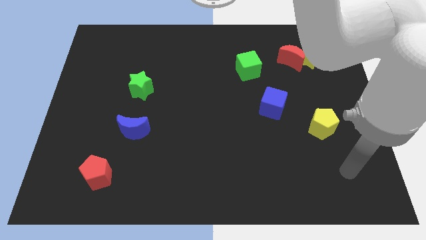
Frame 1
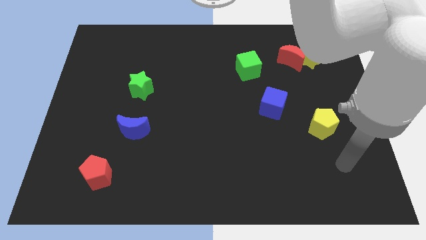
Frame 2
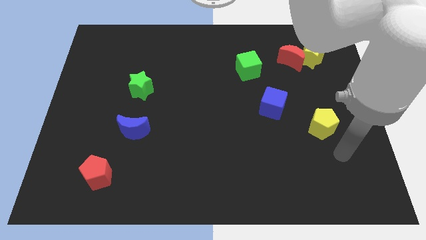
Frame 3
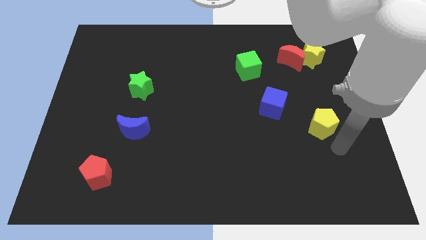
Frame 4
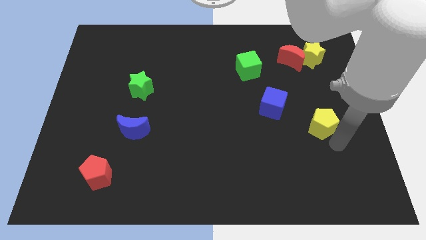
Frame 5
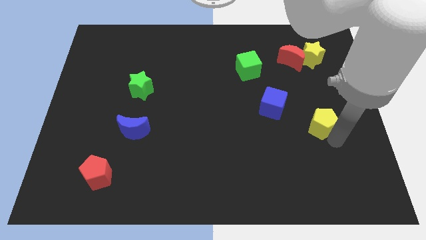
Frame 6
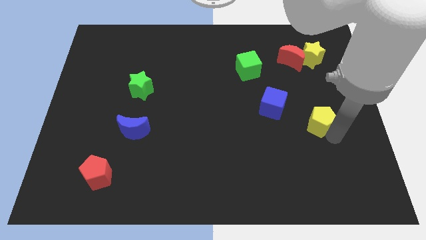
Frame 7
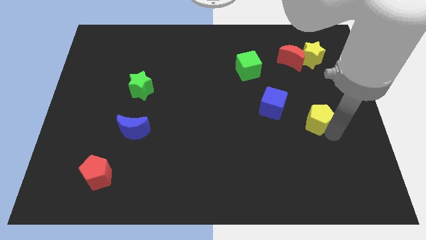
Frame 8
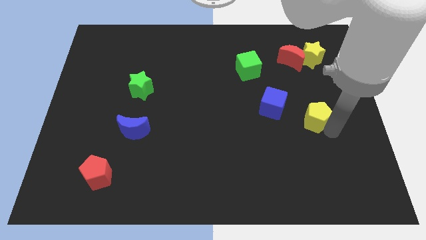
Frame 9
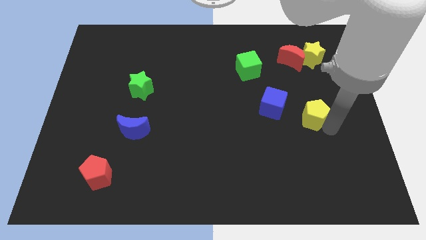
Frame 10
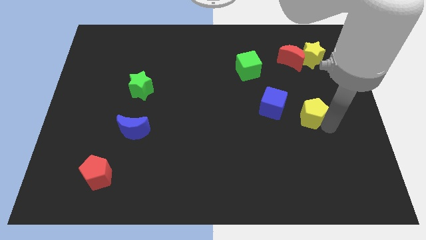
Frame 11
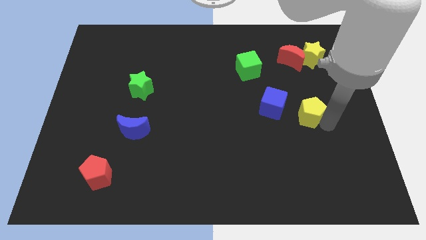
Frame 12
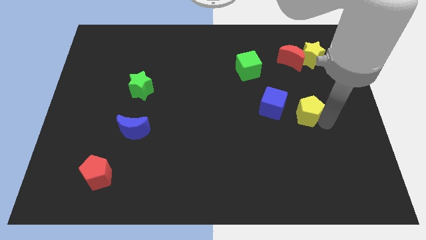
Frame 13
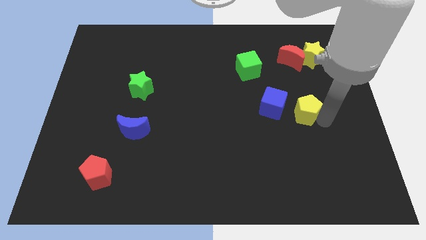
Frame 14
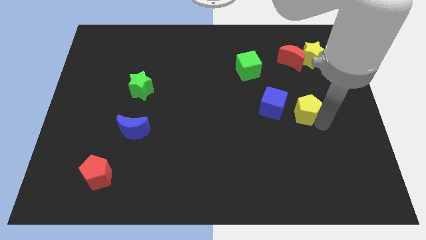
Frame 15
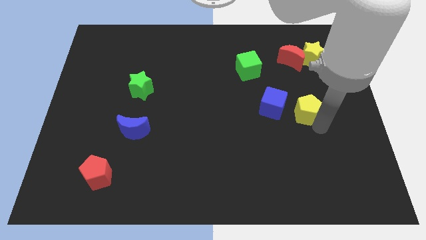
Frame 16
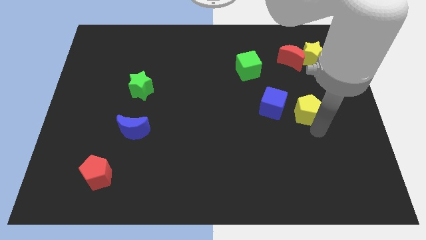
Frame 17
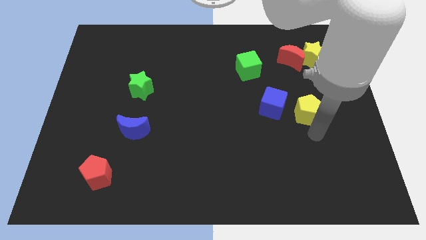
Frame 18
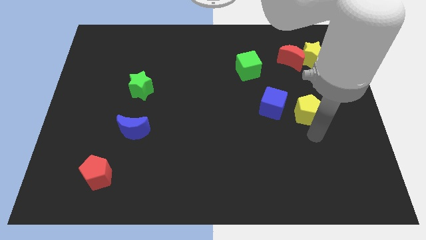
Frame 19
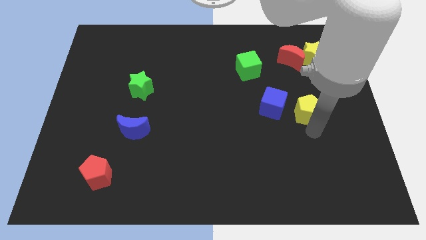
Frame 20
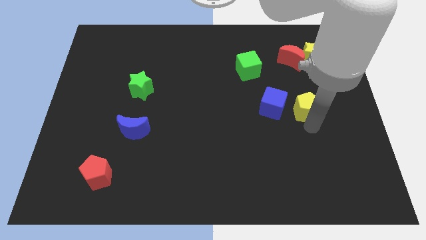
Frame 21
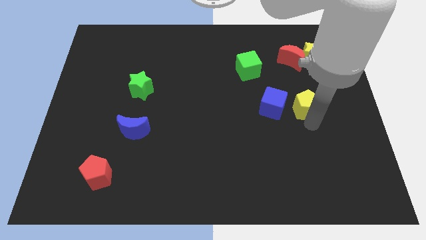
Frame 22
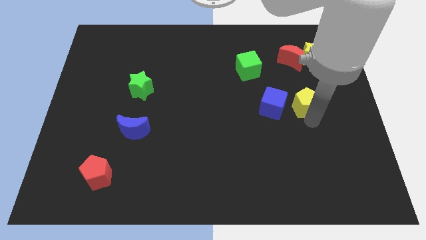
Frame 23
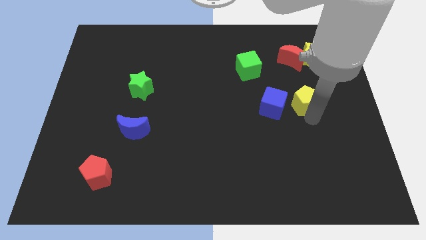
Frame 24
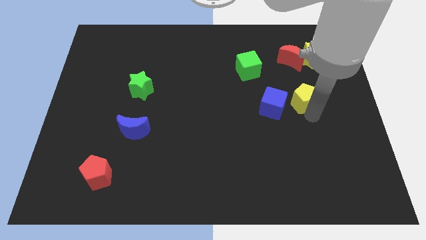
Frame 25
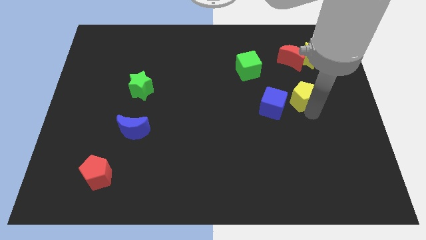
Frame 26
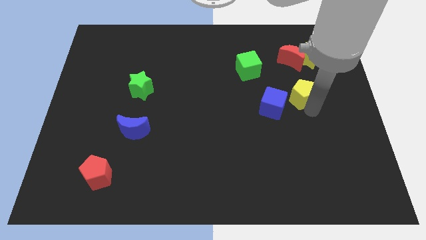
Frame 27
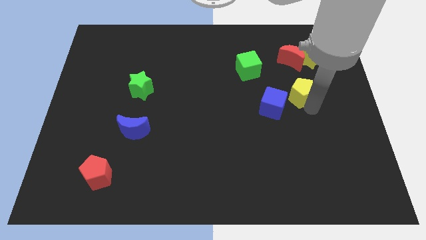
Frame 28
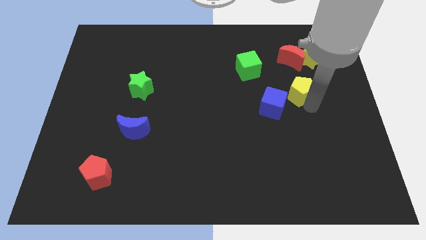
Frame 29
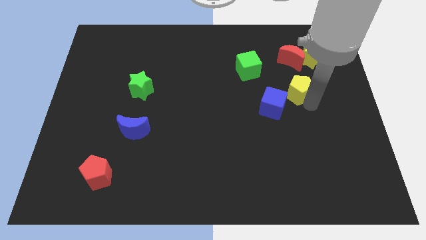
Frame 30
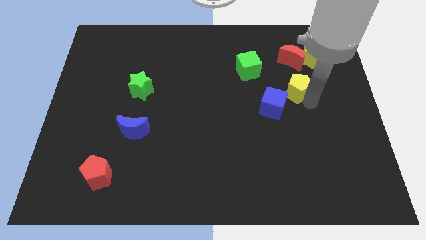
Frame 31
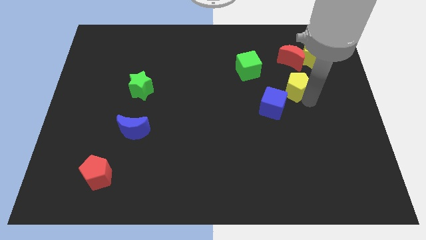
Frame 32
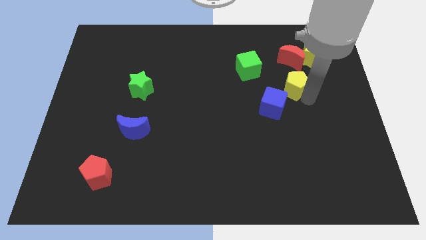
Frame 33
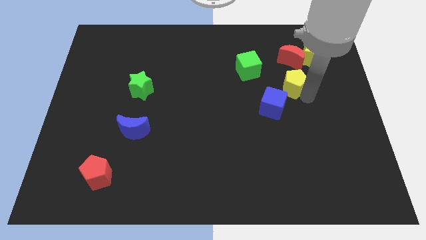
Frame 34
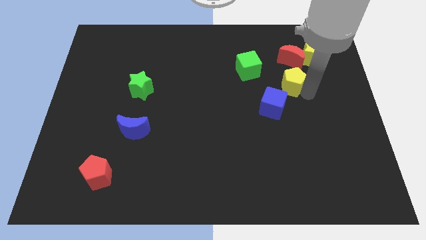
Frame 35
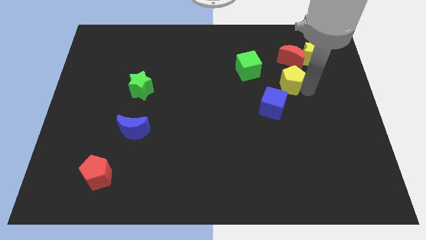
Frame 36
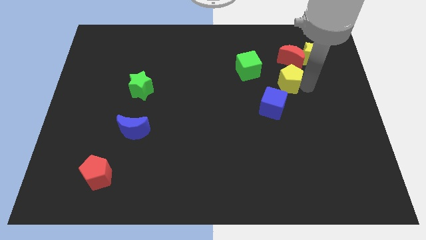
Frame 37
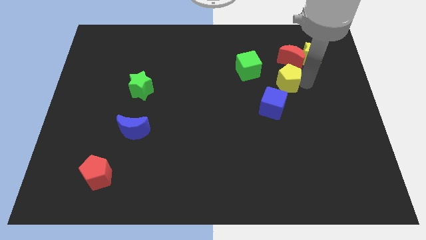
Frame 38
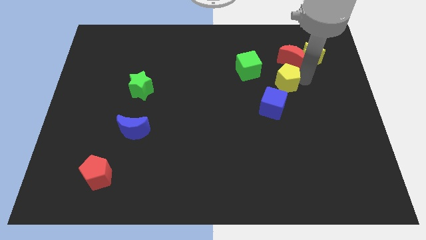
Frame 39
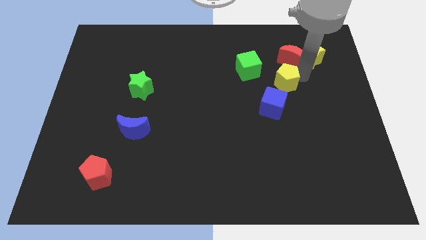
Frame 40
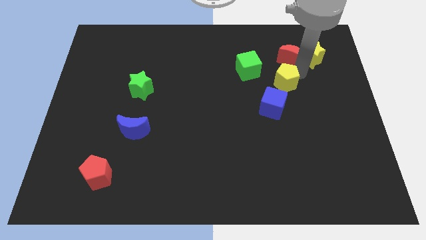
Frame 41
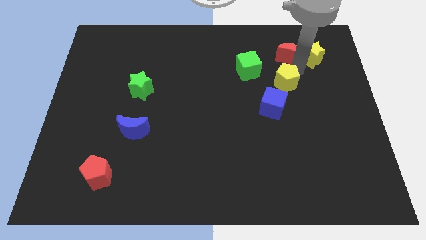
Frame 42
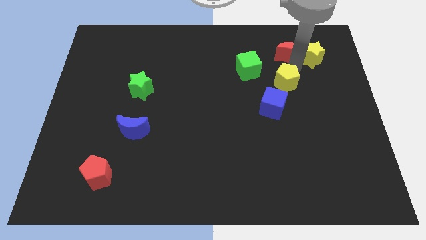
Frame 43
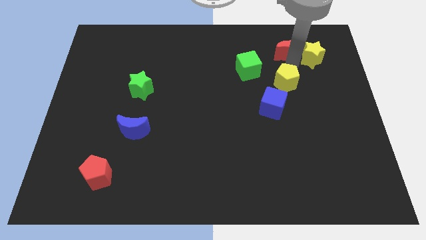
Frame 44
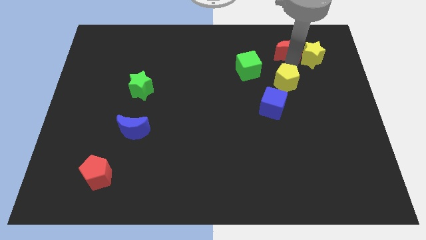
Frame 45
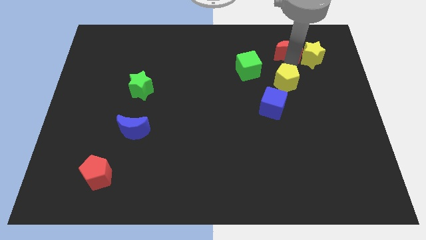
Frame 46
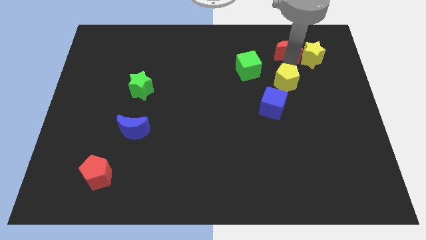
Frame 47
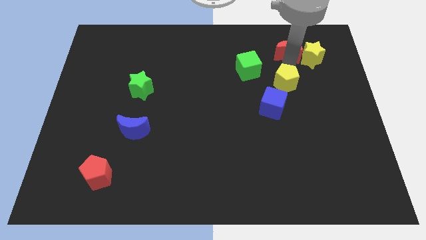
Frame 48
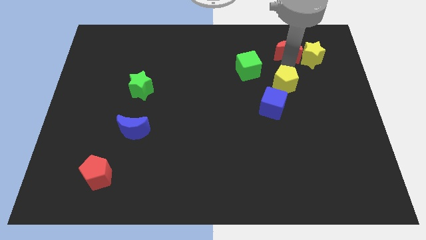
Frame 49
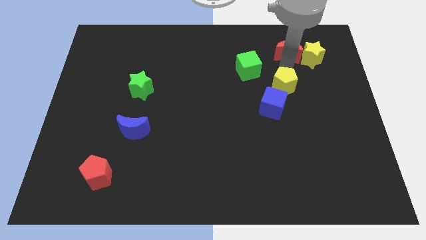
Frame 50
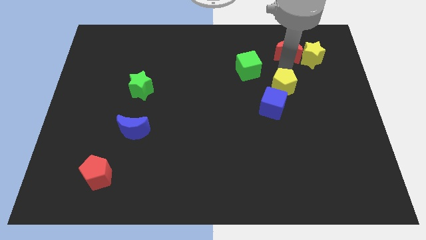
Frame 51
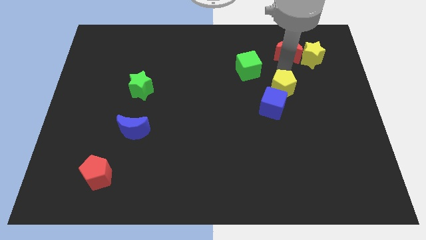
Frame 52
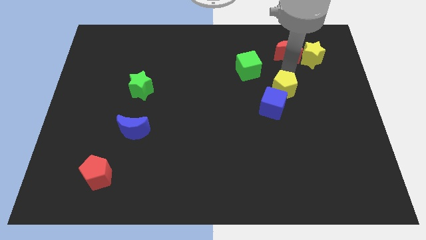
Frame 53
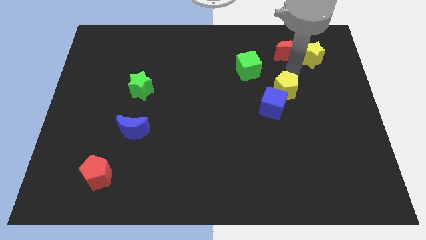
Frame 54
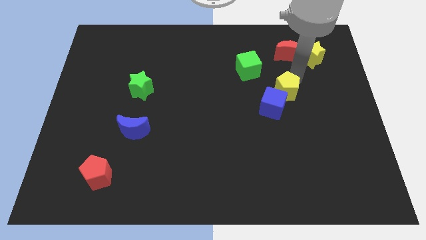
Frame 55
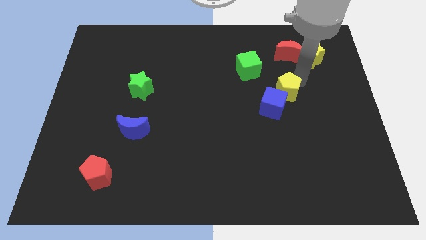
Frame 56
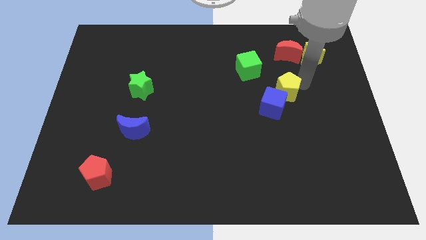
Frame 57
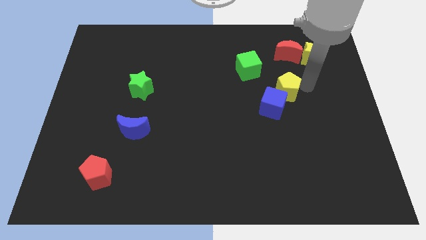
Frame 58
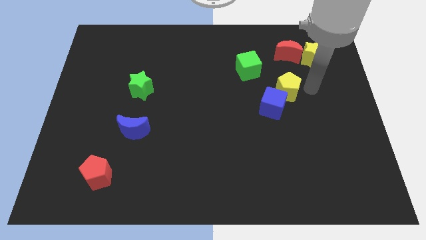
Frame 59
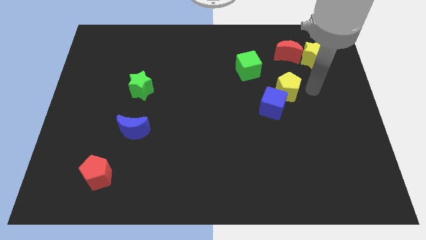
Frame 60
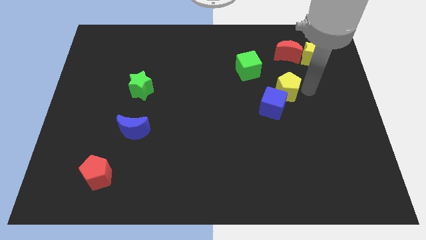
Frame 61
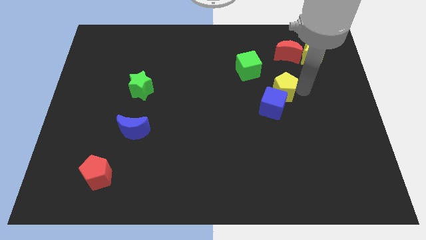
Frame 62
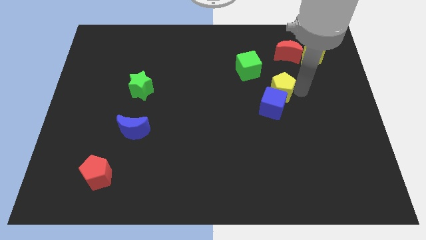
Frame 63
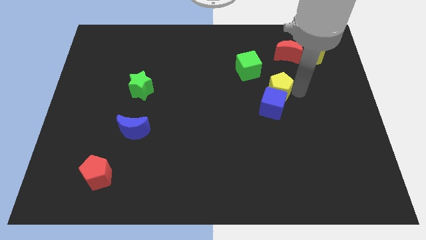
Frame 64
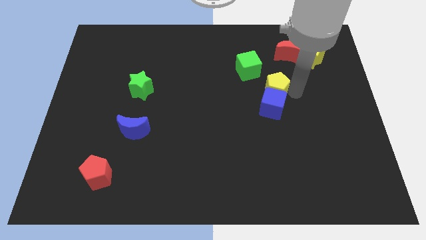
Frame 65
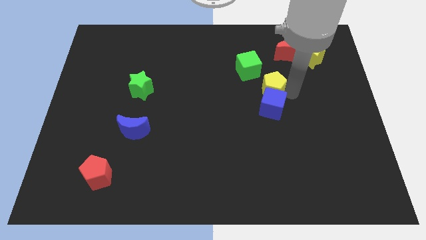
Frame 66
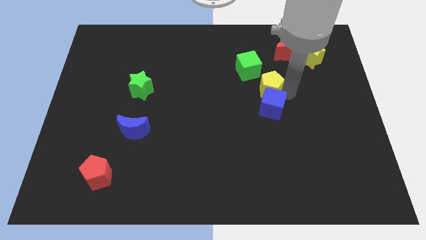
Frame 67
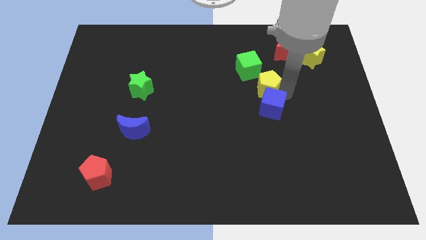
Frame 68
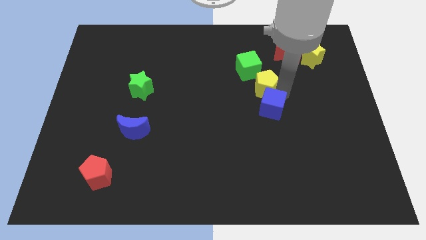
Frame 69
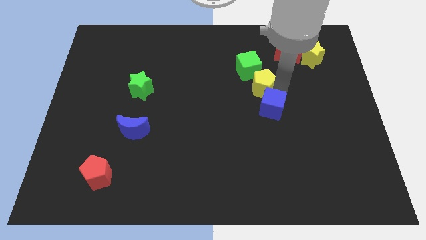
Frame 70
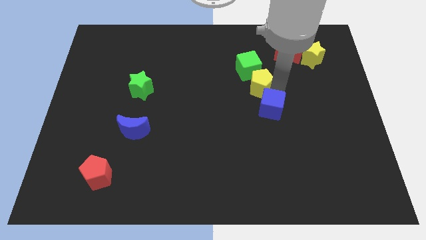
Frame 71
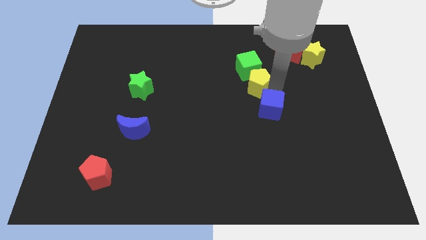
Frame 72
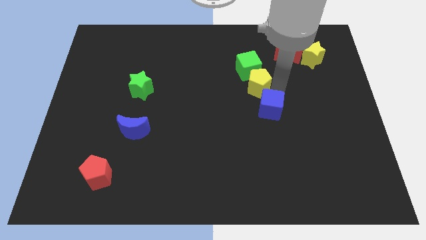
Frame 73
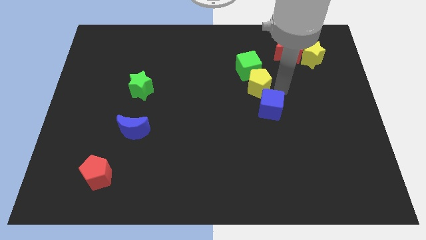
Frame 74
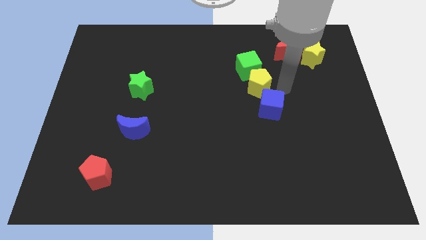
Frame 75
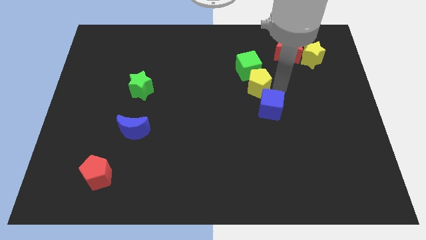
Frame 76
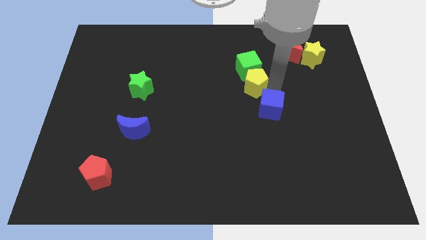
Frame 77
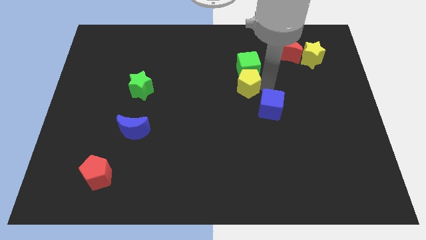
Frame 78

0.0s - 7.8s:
push the yellow pentagon up and left diagonally

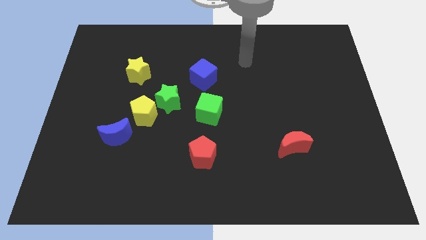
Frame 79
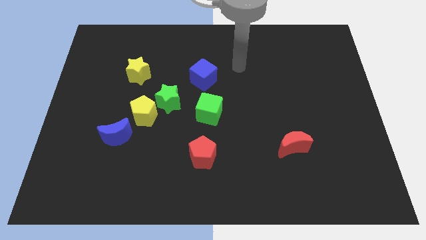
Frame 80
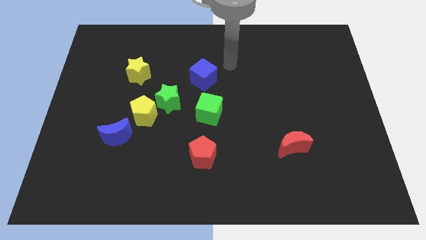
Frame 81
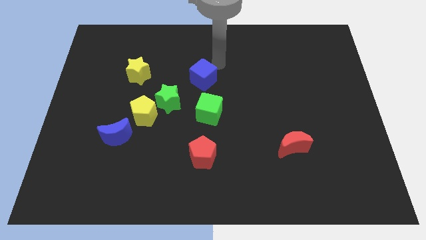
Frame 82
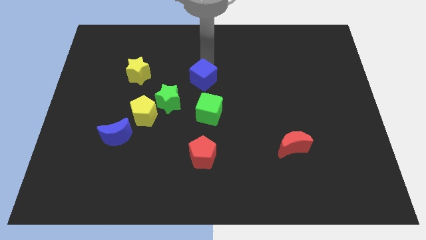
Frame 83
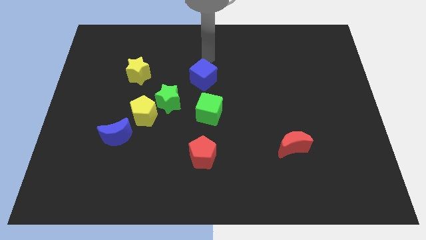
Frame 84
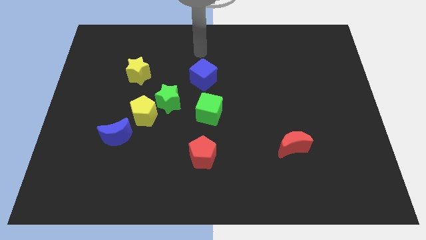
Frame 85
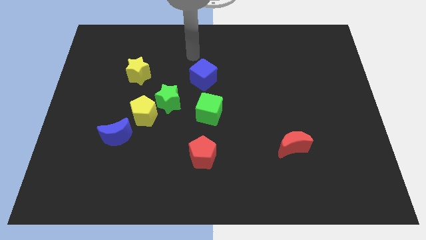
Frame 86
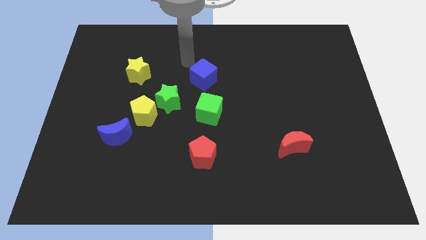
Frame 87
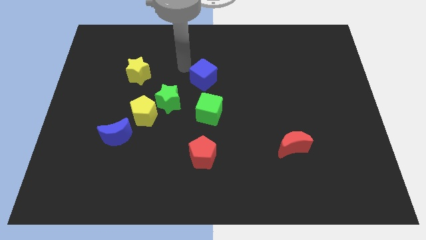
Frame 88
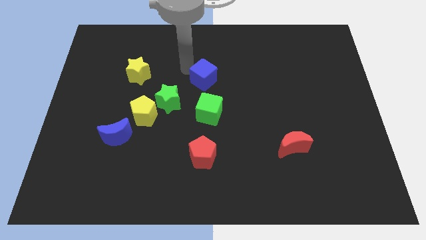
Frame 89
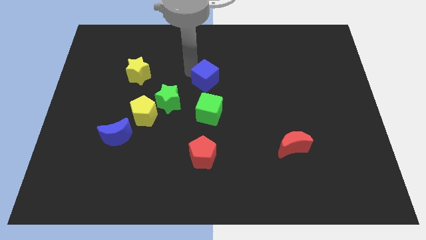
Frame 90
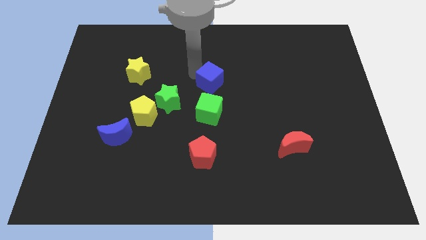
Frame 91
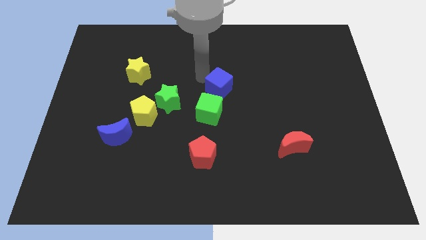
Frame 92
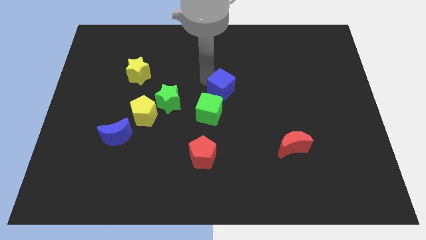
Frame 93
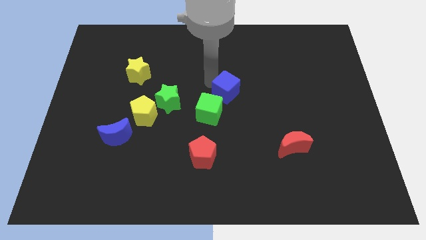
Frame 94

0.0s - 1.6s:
move the blue cube downwards and then right a little
